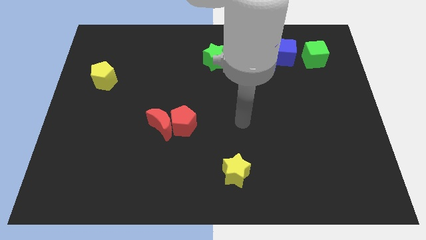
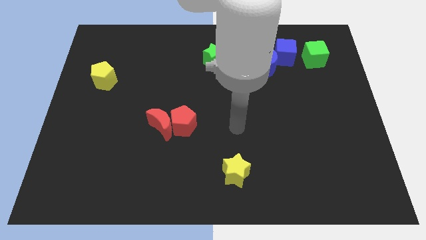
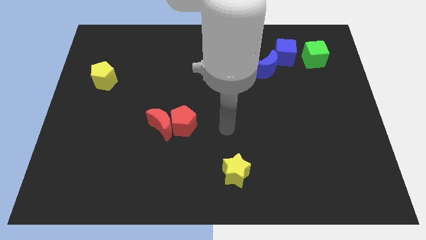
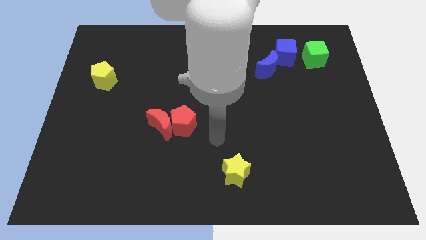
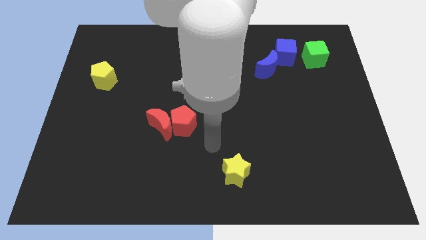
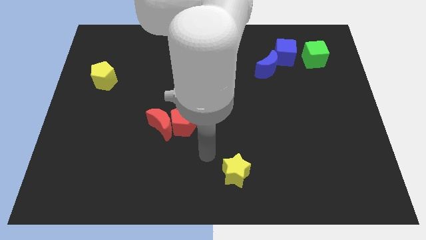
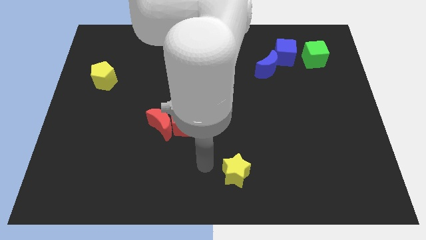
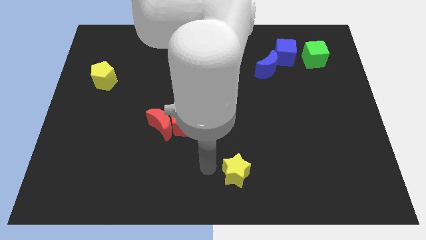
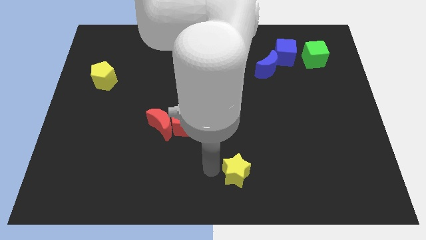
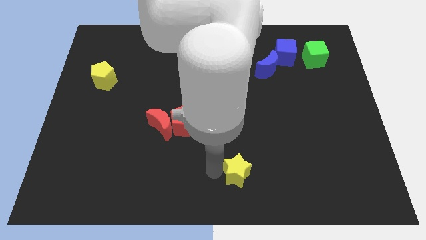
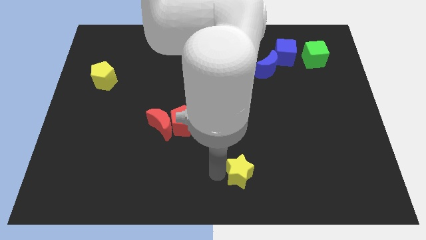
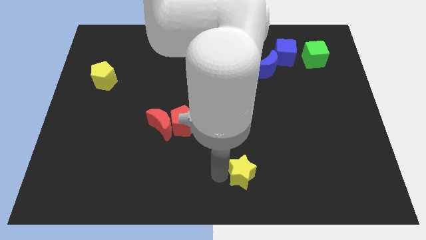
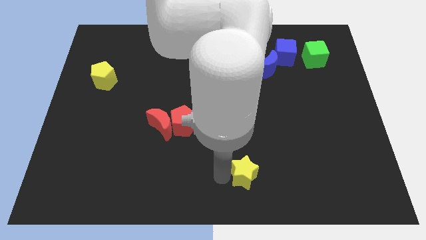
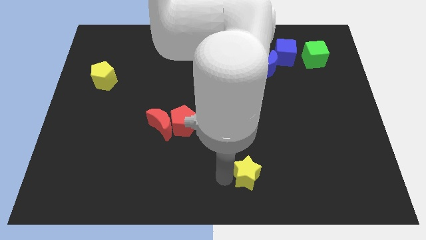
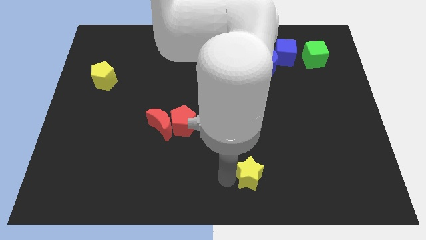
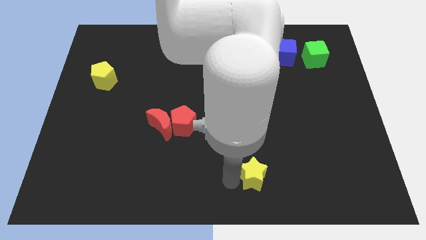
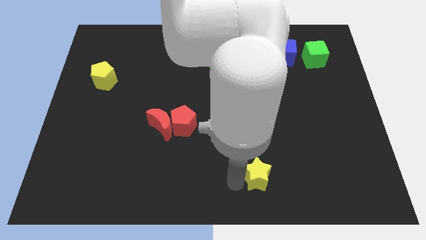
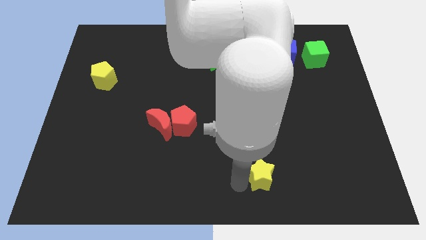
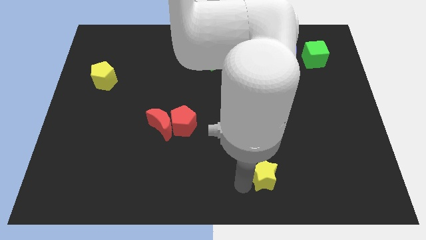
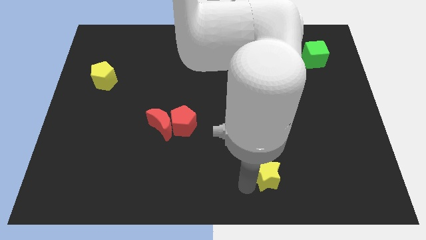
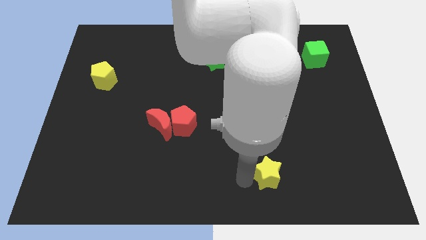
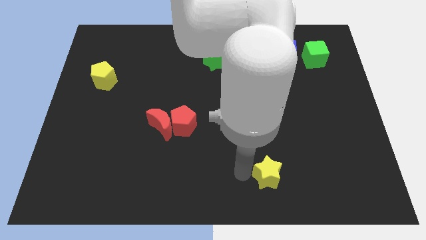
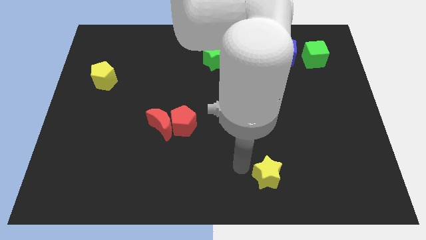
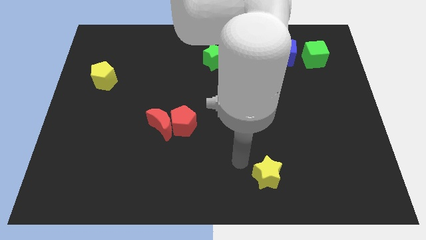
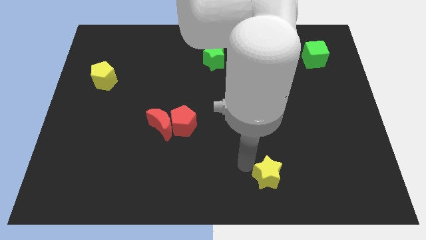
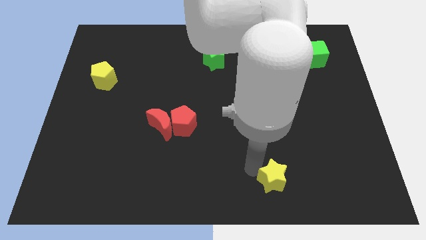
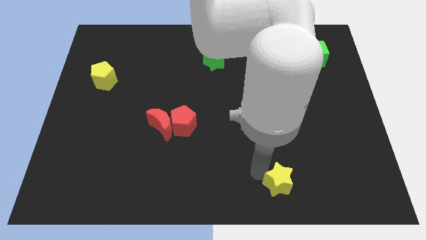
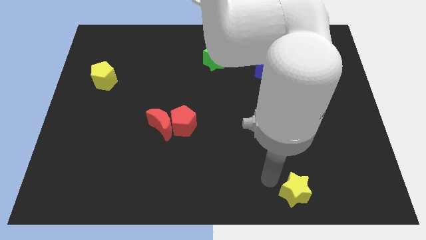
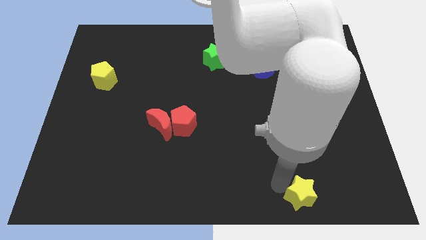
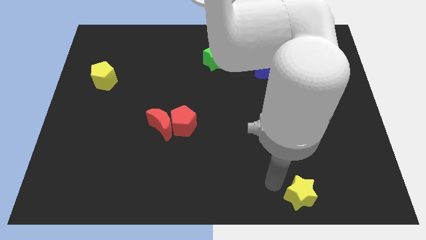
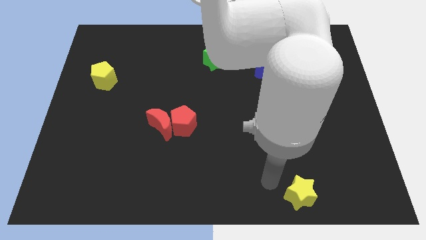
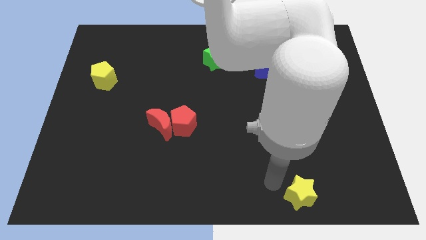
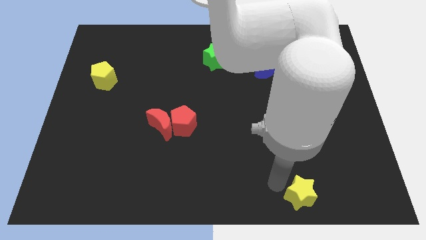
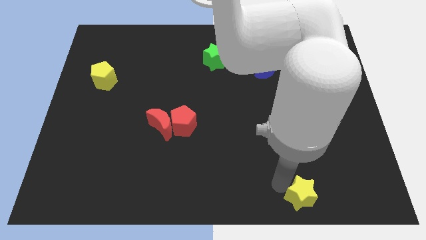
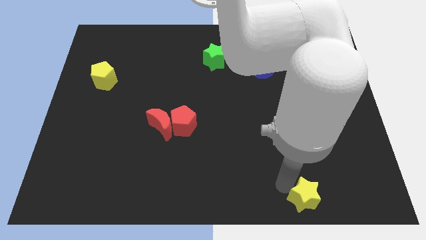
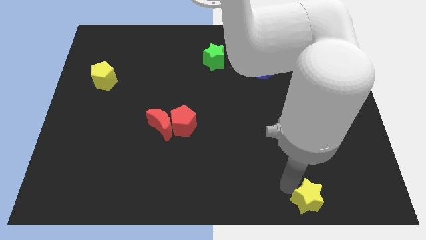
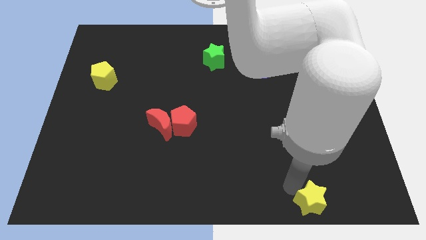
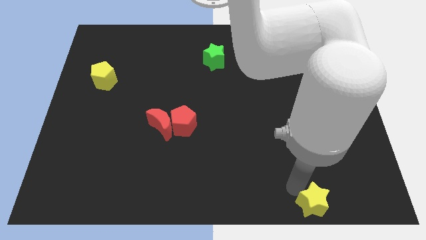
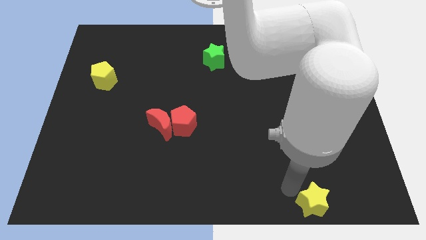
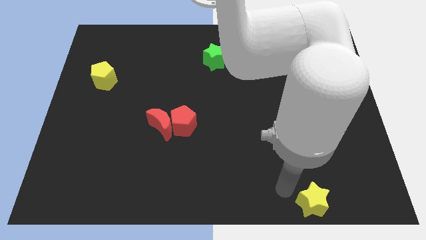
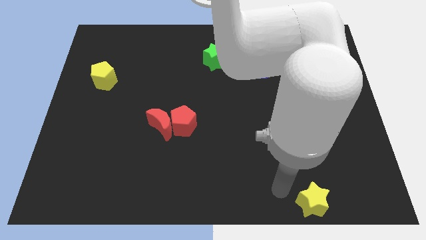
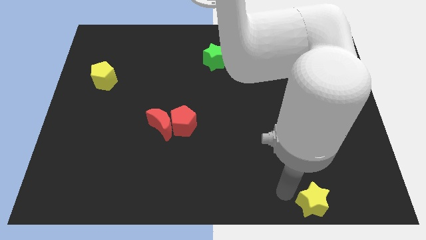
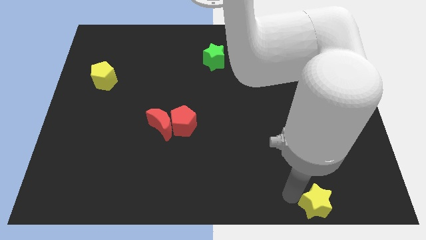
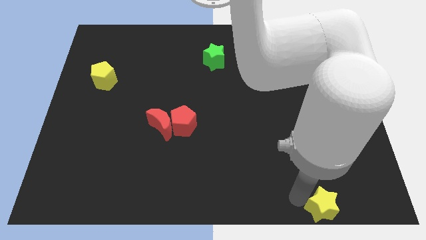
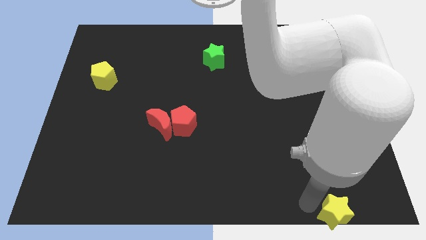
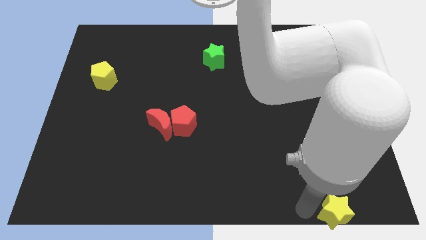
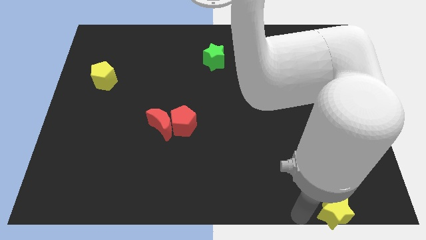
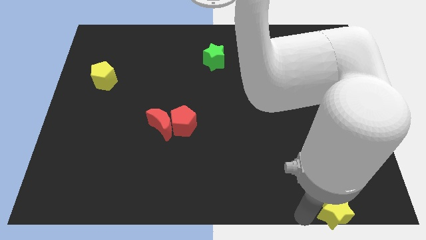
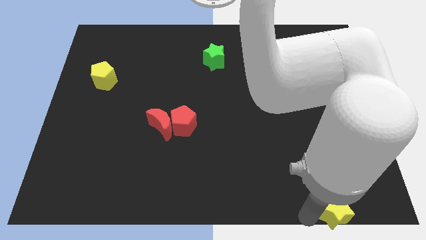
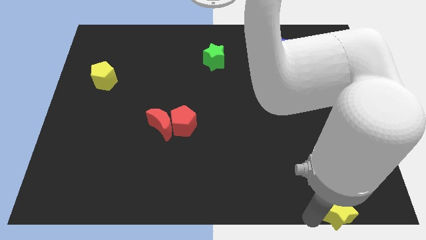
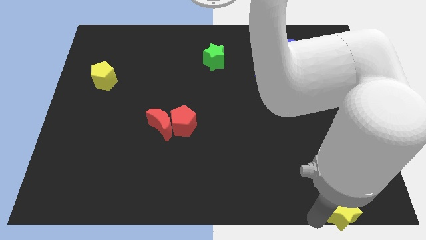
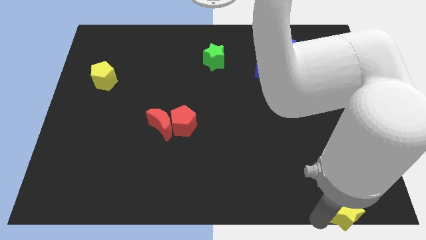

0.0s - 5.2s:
put the yellow star to the bottom right of the board

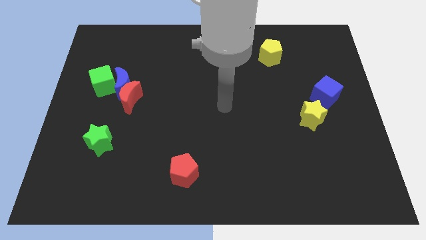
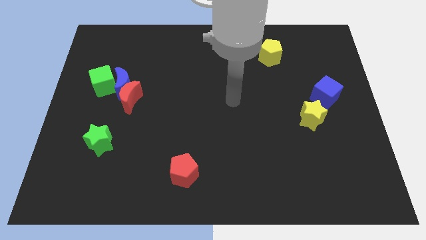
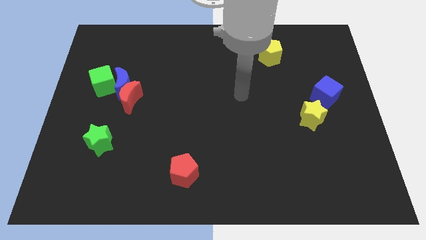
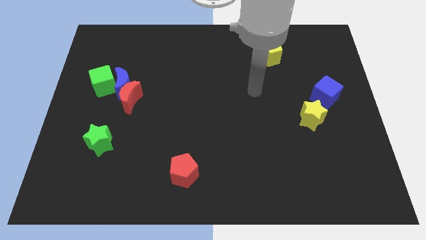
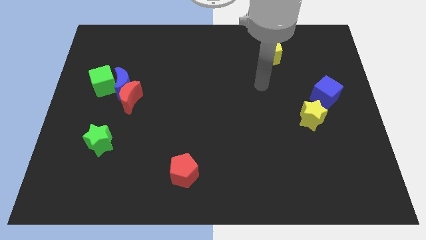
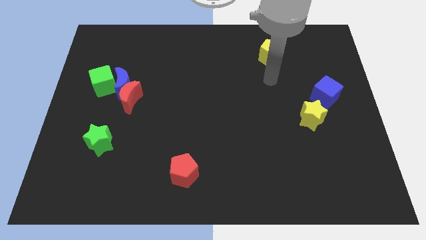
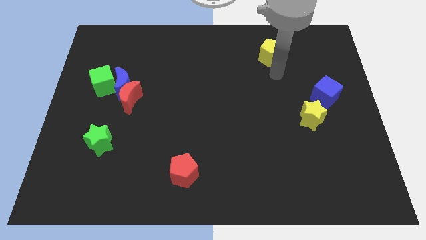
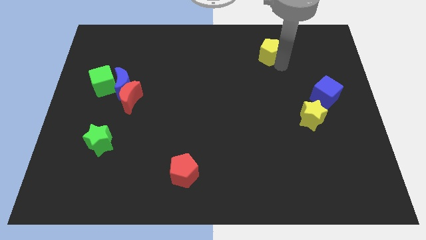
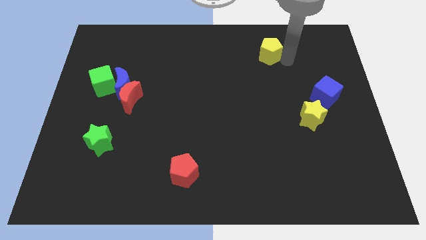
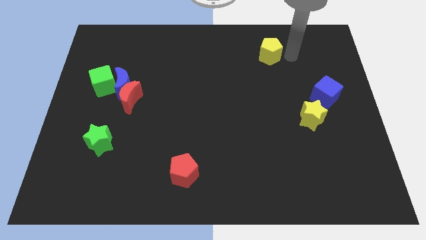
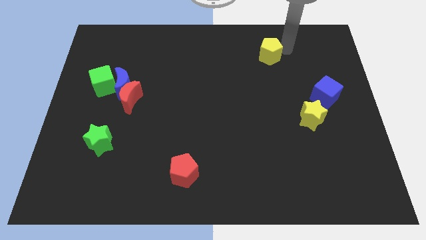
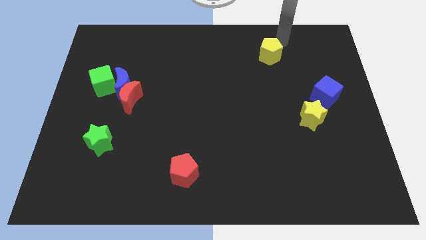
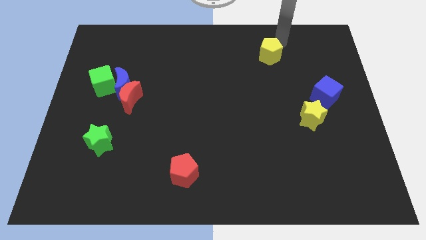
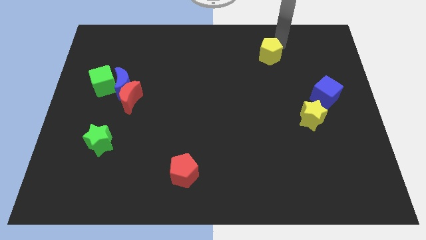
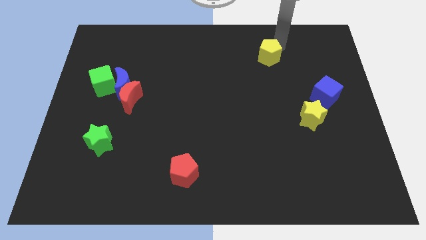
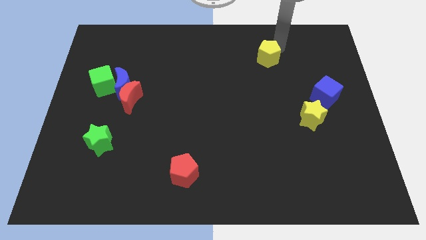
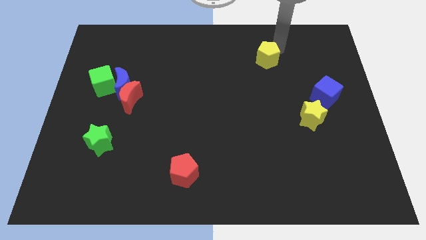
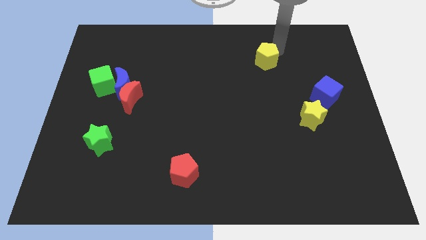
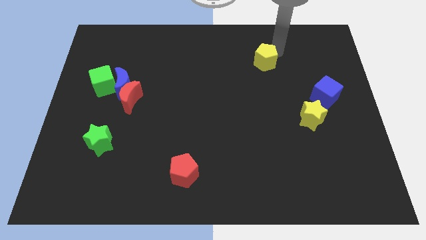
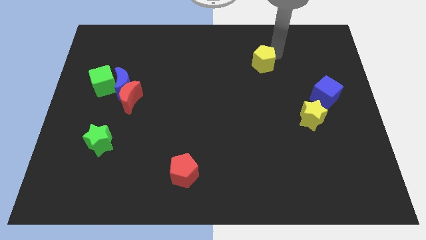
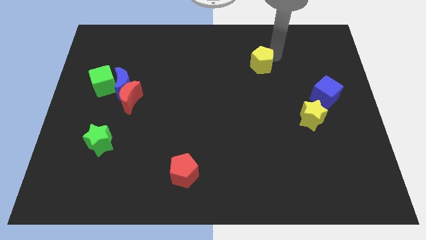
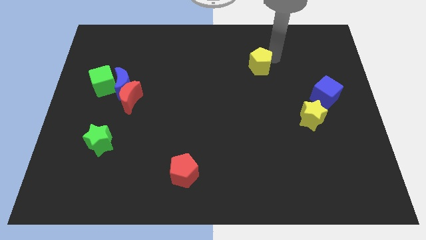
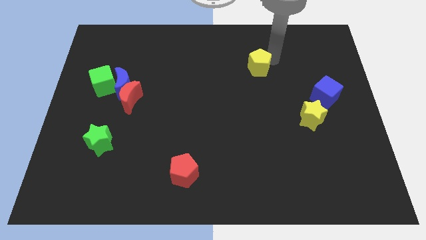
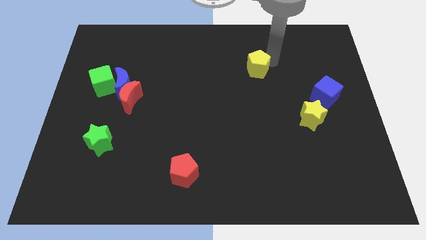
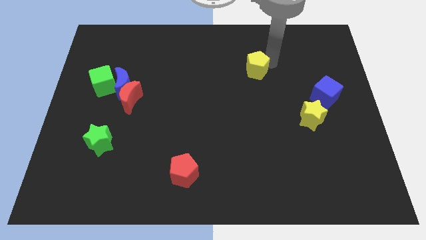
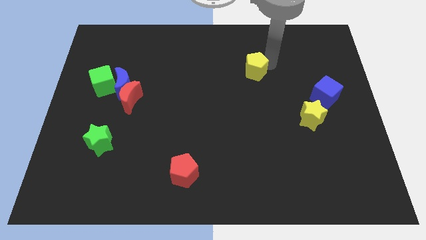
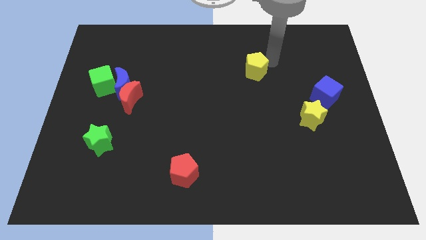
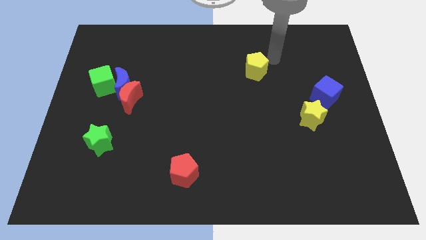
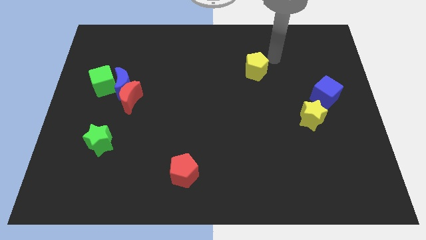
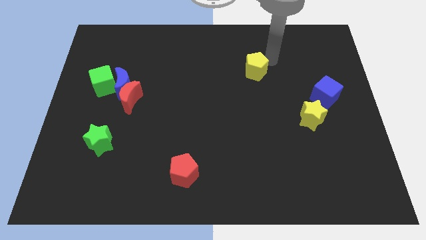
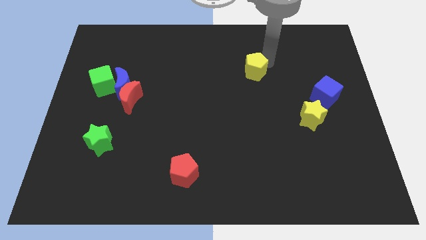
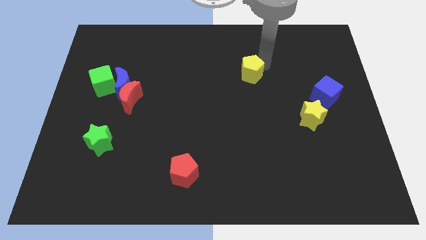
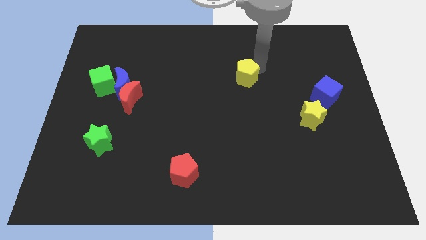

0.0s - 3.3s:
move the yellow pentagon to the middle of the board
